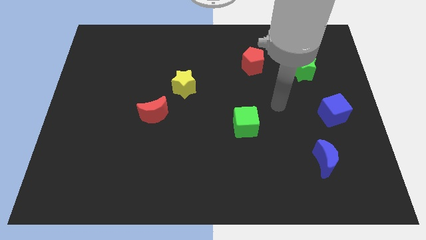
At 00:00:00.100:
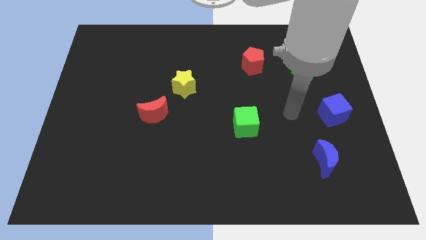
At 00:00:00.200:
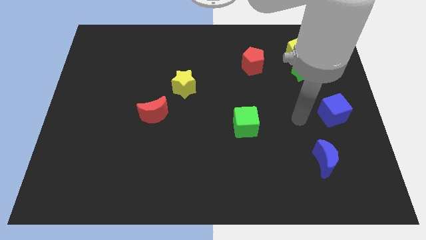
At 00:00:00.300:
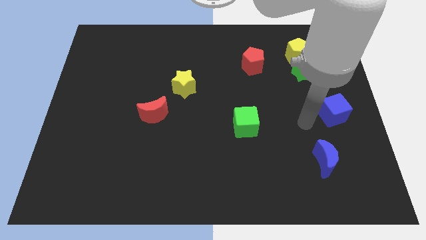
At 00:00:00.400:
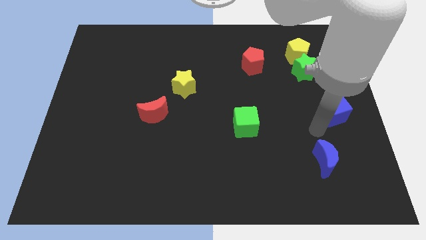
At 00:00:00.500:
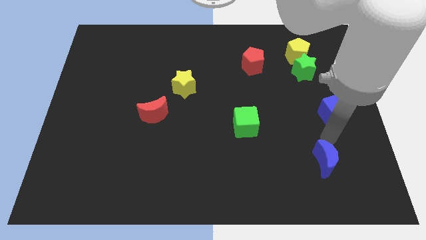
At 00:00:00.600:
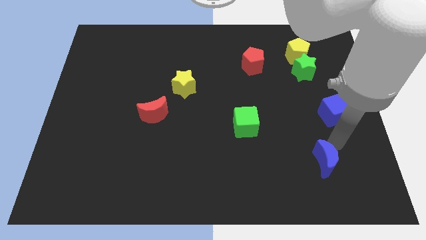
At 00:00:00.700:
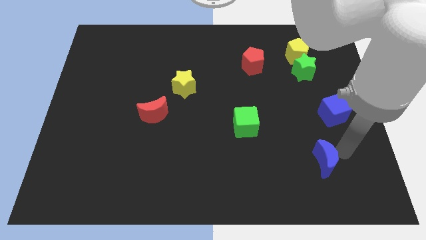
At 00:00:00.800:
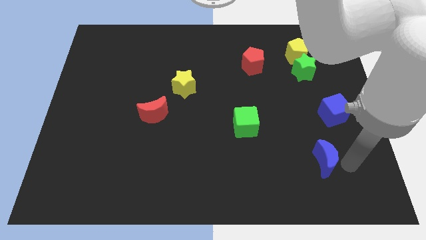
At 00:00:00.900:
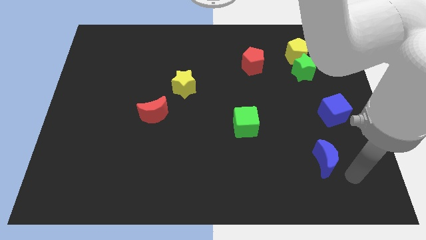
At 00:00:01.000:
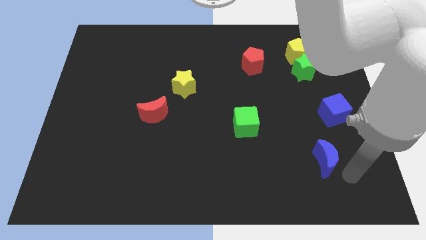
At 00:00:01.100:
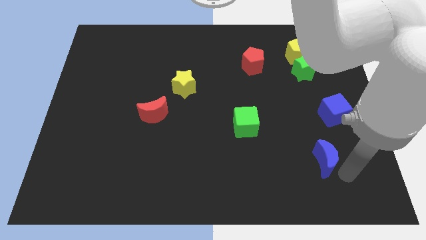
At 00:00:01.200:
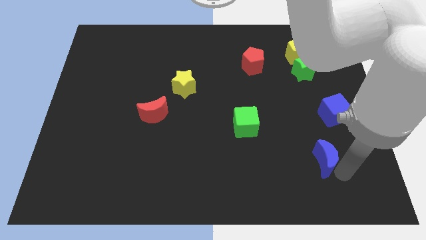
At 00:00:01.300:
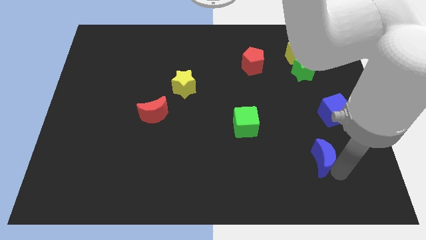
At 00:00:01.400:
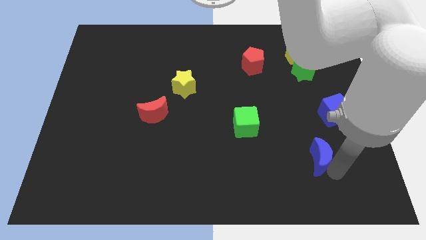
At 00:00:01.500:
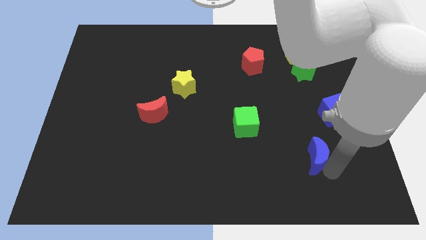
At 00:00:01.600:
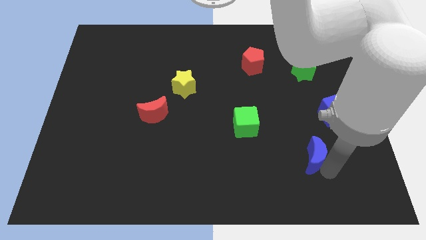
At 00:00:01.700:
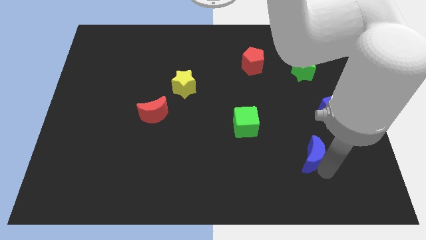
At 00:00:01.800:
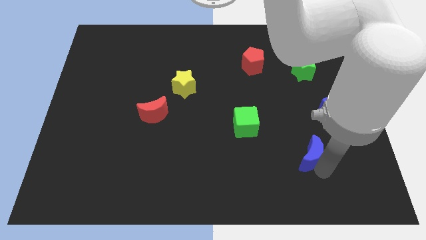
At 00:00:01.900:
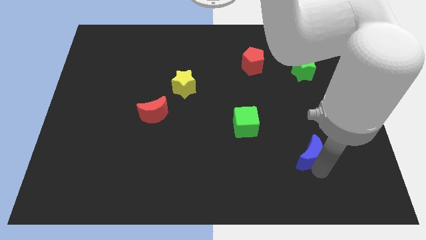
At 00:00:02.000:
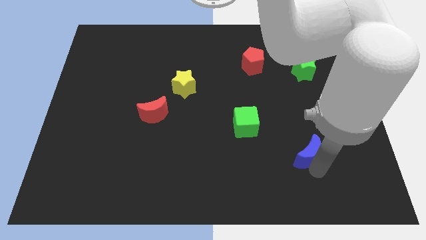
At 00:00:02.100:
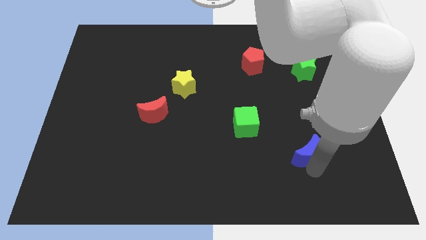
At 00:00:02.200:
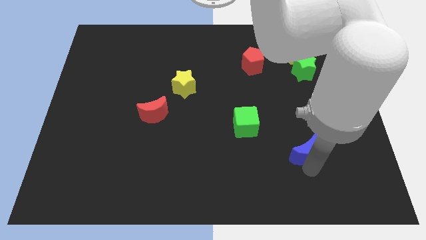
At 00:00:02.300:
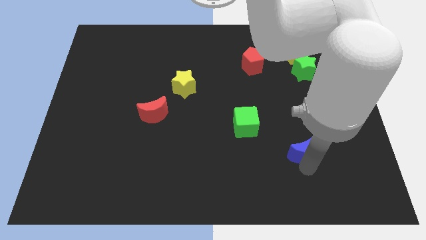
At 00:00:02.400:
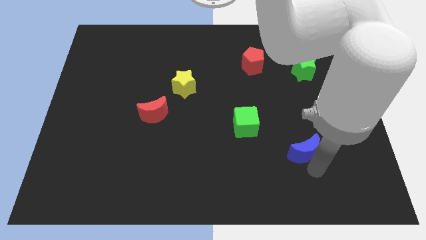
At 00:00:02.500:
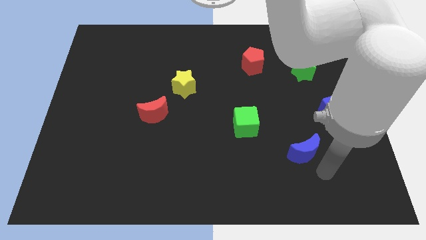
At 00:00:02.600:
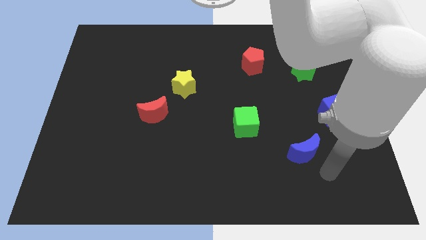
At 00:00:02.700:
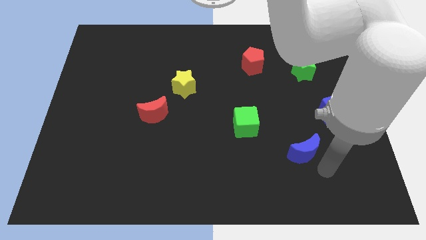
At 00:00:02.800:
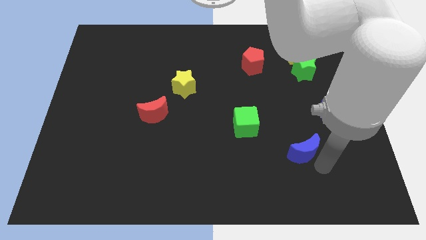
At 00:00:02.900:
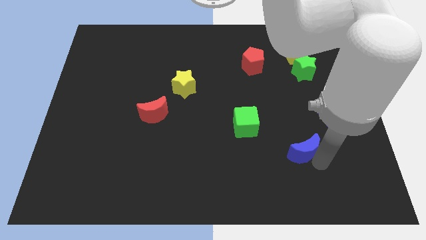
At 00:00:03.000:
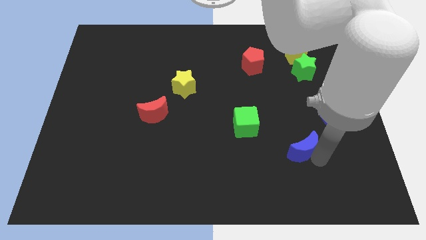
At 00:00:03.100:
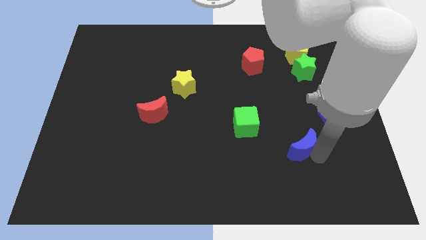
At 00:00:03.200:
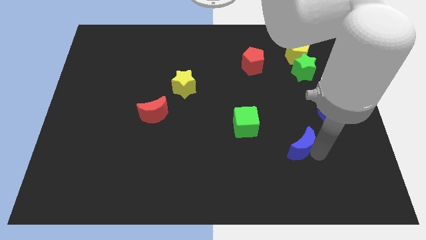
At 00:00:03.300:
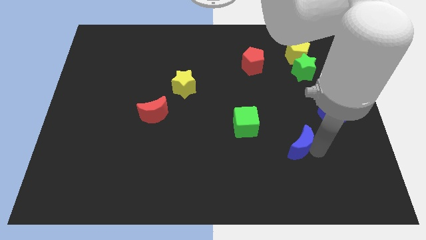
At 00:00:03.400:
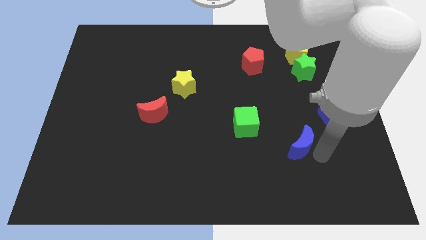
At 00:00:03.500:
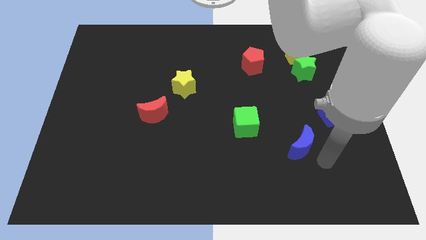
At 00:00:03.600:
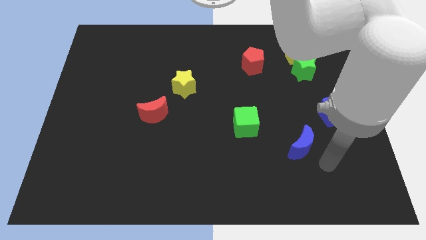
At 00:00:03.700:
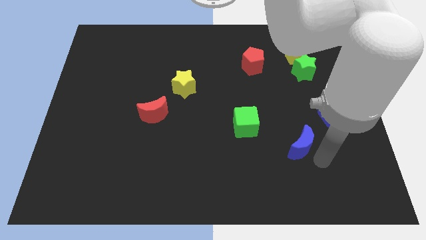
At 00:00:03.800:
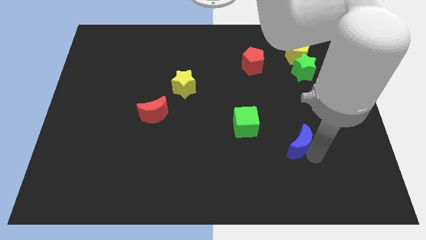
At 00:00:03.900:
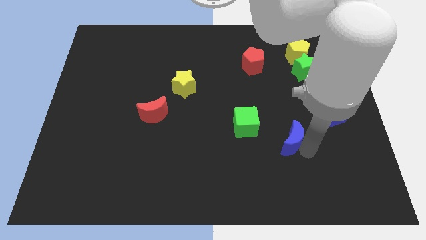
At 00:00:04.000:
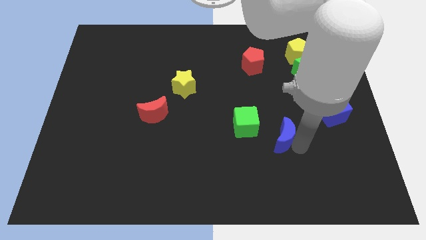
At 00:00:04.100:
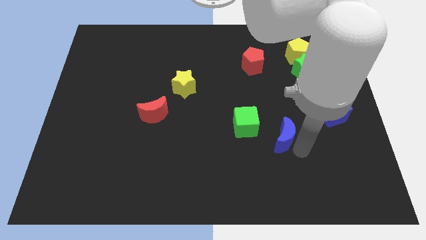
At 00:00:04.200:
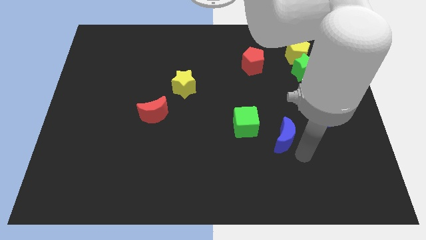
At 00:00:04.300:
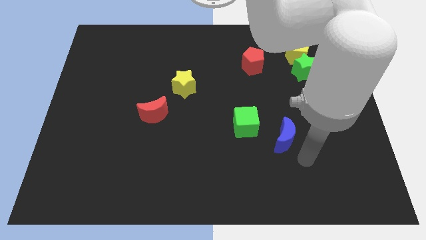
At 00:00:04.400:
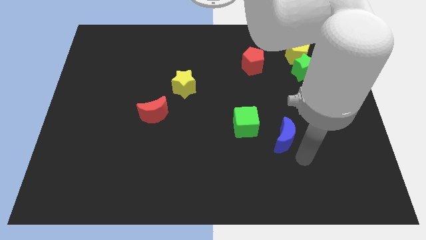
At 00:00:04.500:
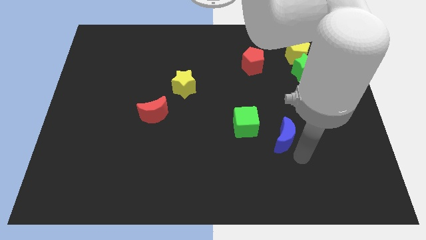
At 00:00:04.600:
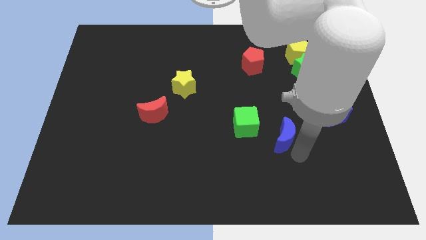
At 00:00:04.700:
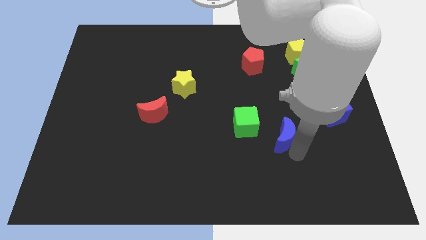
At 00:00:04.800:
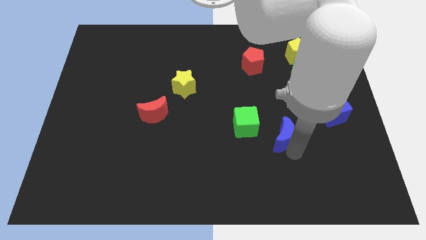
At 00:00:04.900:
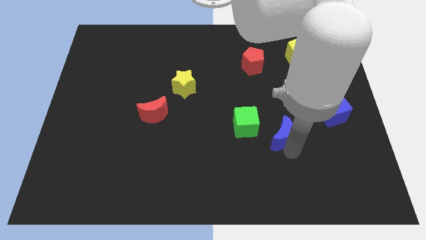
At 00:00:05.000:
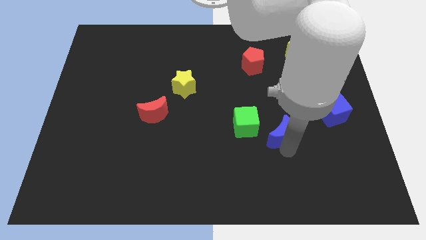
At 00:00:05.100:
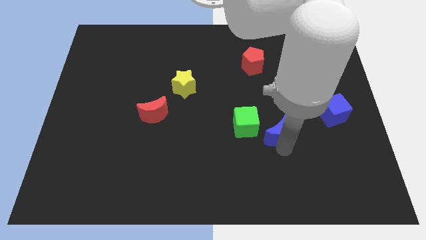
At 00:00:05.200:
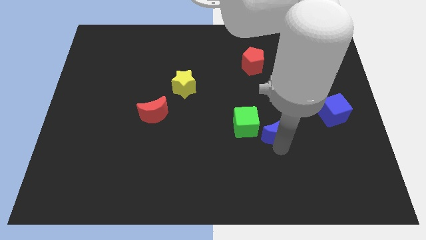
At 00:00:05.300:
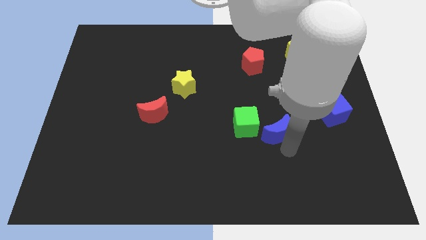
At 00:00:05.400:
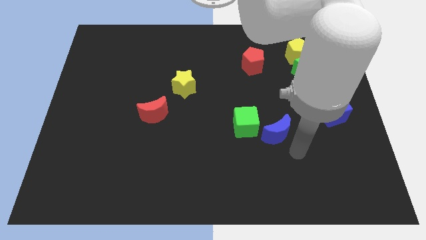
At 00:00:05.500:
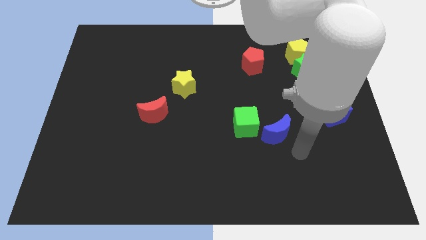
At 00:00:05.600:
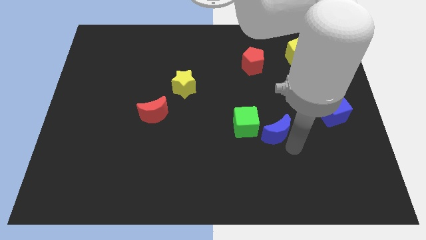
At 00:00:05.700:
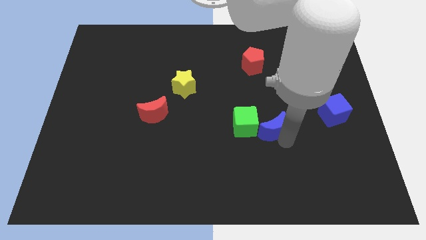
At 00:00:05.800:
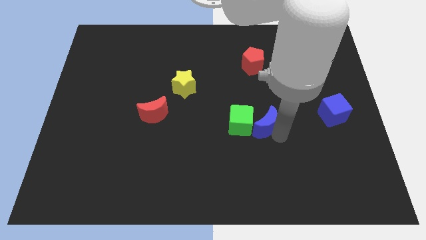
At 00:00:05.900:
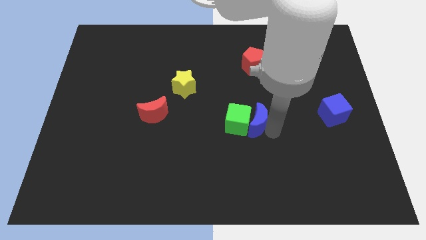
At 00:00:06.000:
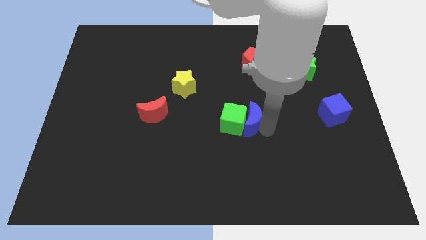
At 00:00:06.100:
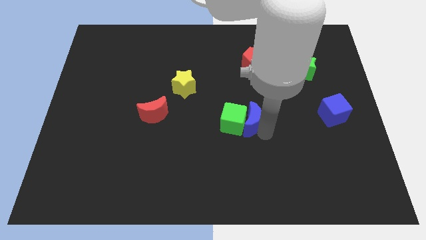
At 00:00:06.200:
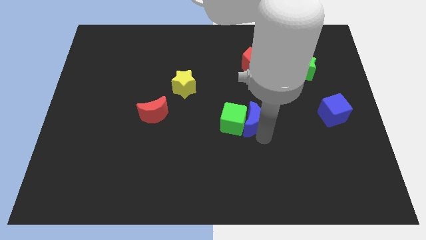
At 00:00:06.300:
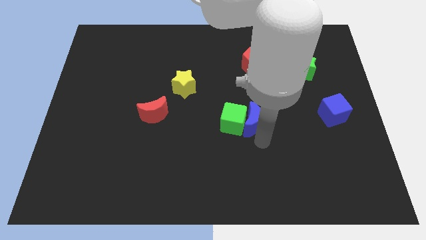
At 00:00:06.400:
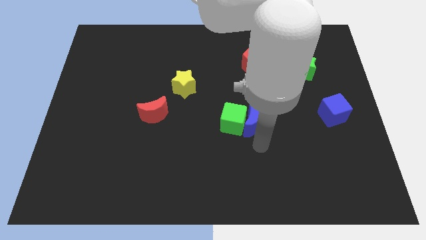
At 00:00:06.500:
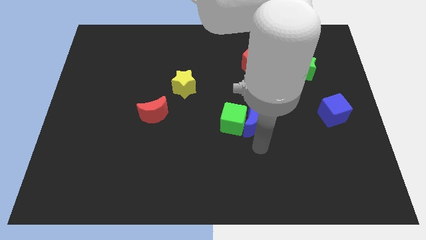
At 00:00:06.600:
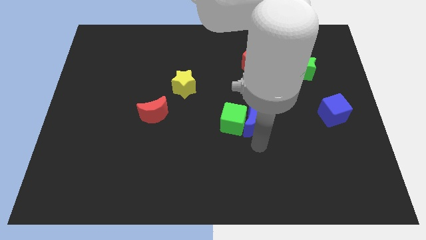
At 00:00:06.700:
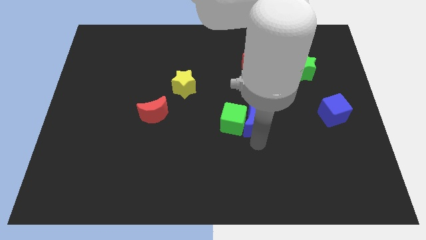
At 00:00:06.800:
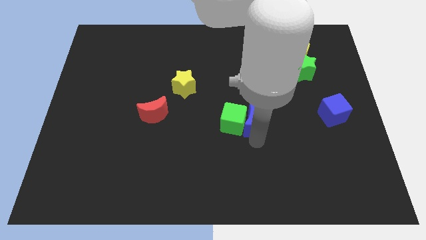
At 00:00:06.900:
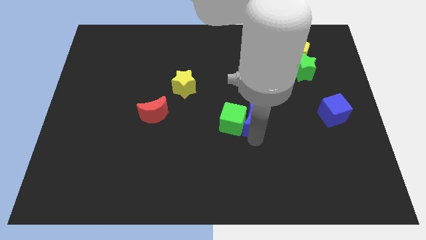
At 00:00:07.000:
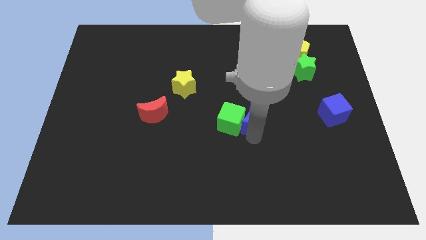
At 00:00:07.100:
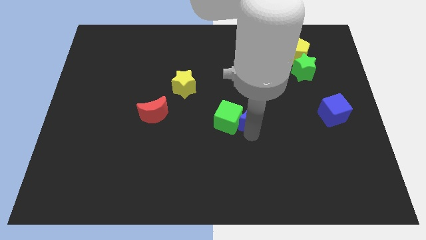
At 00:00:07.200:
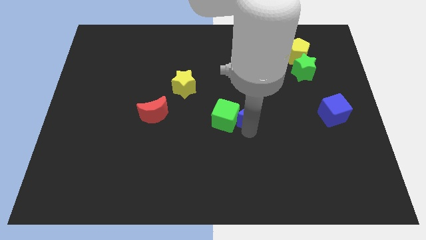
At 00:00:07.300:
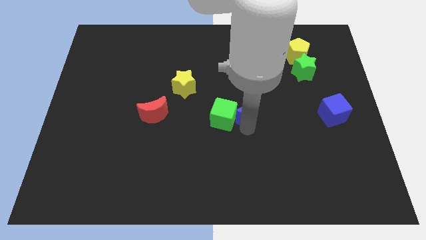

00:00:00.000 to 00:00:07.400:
move the blue moon up and left diagonally
